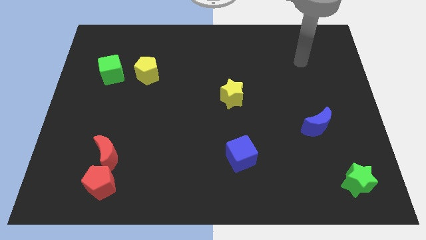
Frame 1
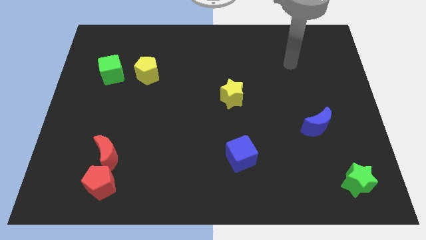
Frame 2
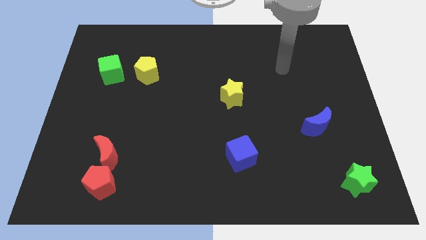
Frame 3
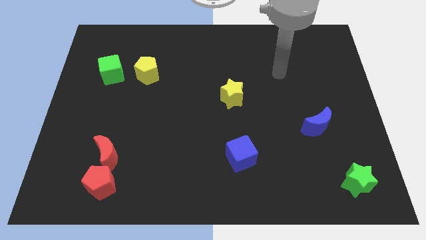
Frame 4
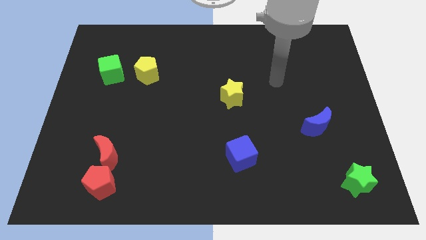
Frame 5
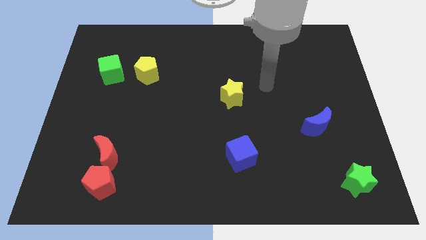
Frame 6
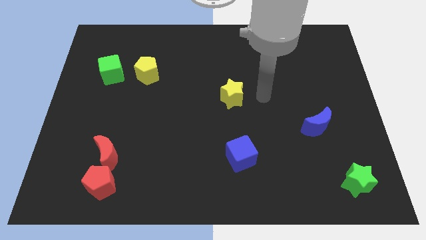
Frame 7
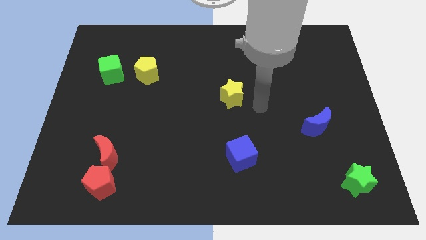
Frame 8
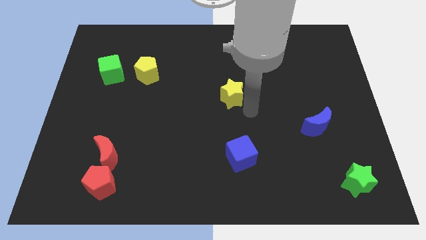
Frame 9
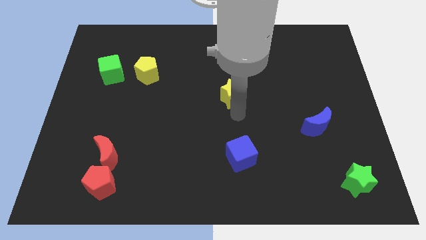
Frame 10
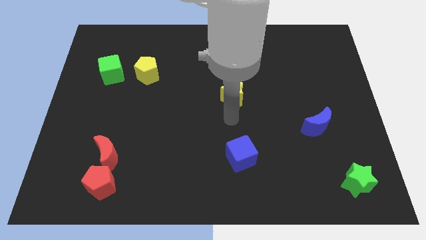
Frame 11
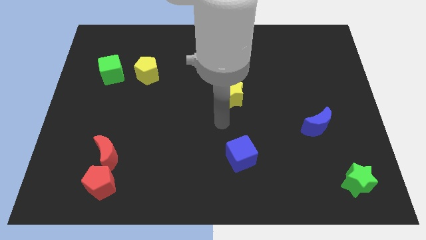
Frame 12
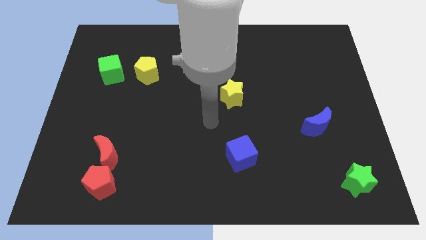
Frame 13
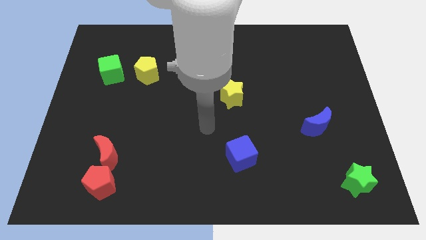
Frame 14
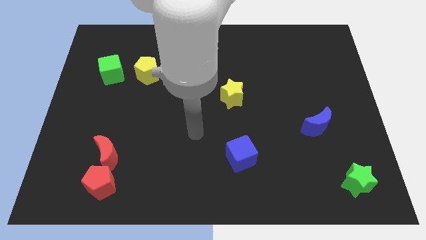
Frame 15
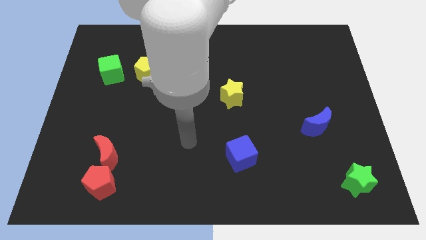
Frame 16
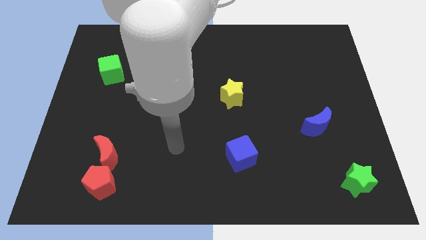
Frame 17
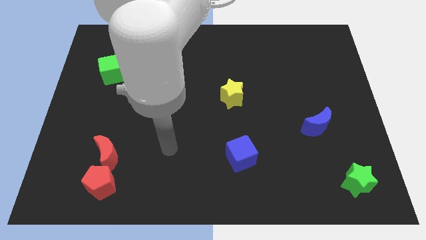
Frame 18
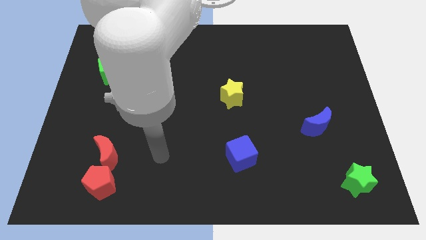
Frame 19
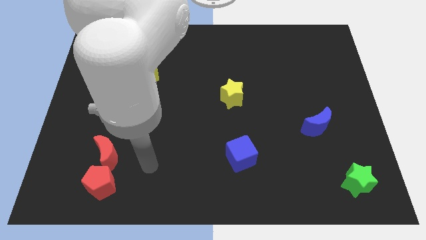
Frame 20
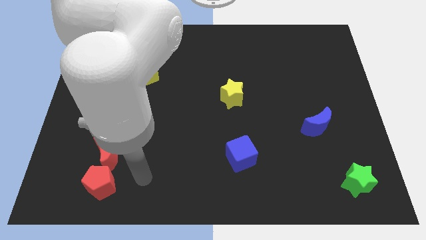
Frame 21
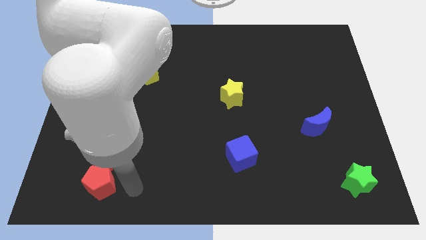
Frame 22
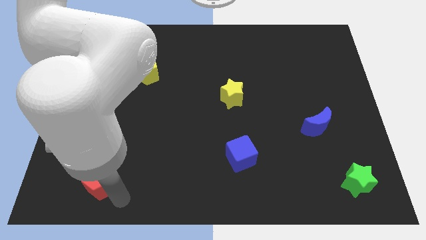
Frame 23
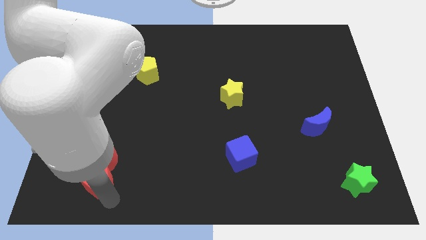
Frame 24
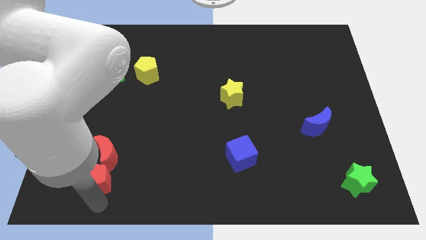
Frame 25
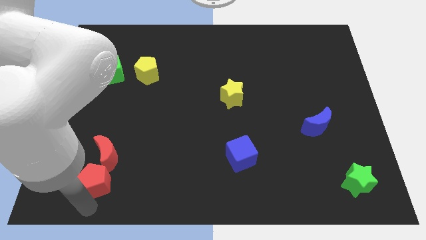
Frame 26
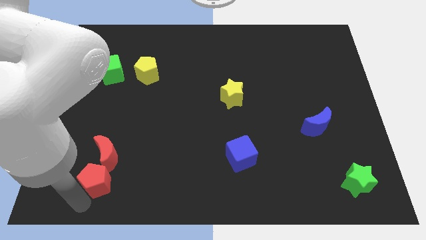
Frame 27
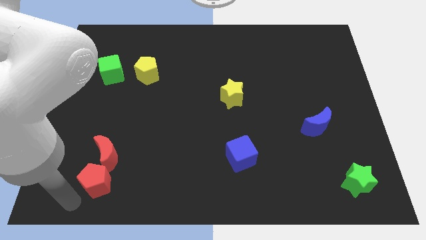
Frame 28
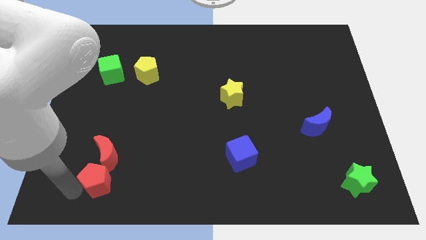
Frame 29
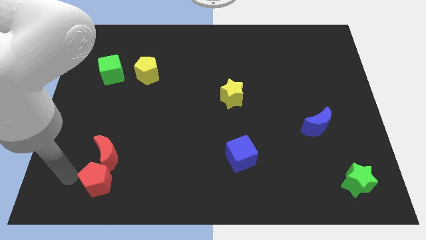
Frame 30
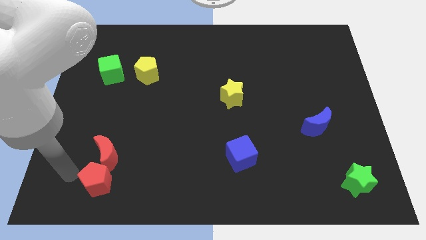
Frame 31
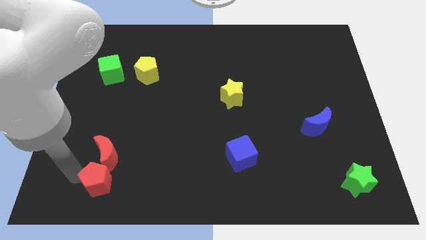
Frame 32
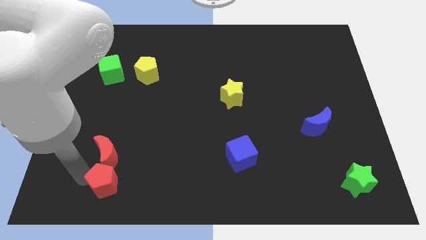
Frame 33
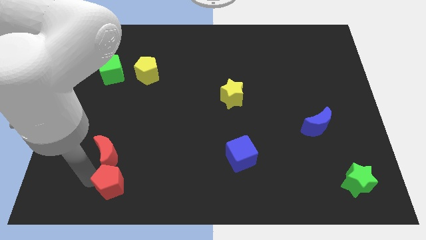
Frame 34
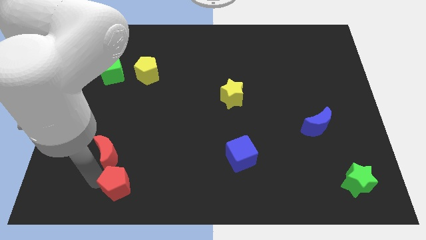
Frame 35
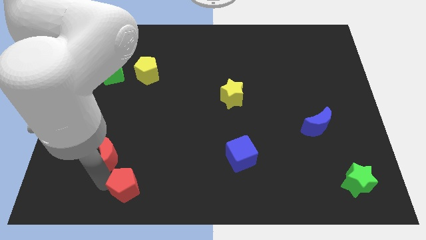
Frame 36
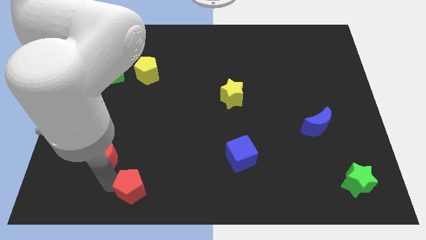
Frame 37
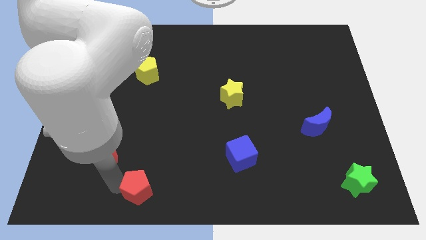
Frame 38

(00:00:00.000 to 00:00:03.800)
move the red pentagon somewhat to the right

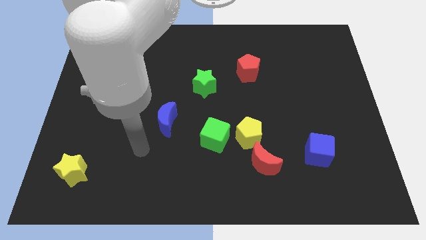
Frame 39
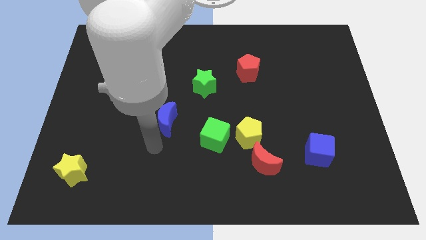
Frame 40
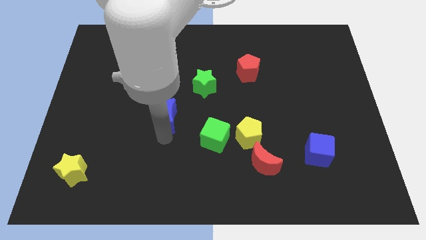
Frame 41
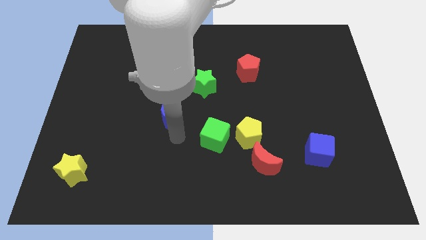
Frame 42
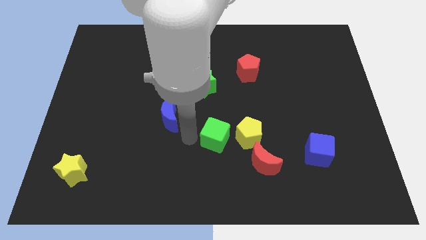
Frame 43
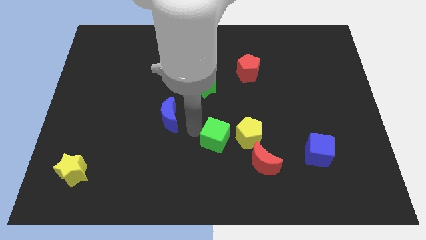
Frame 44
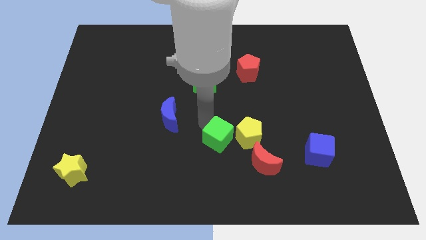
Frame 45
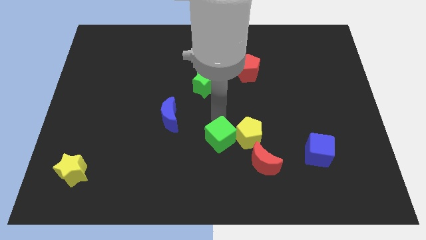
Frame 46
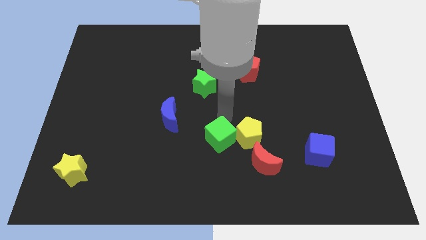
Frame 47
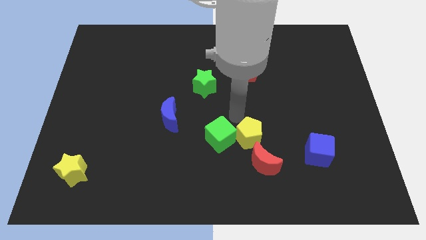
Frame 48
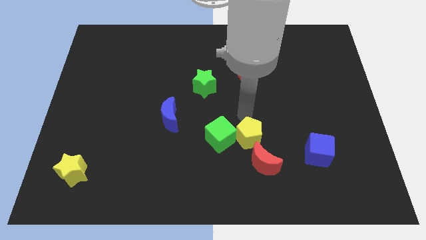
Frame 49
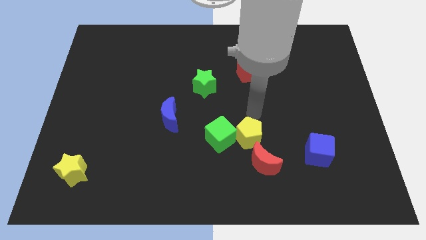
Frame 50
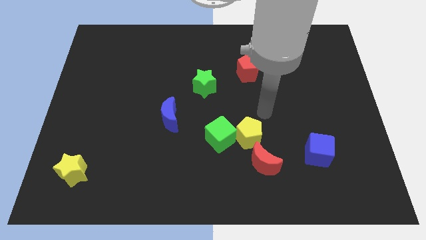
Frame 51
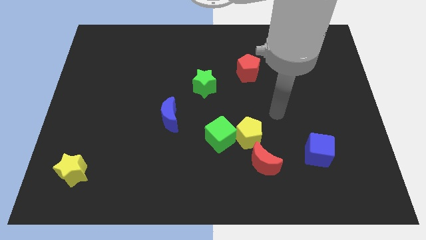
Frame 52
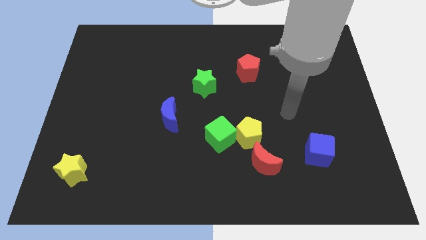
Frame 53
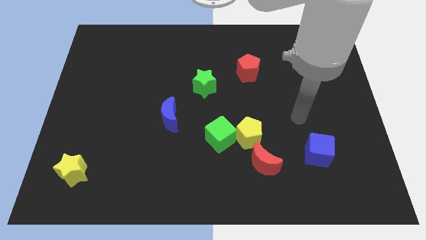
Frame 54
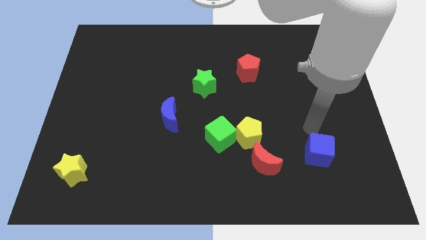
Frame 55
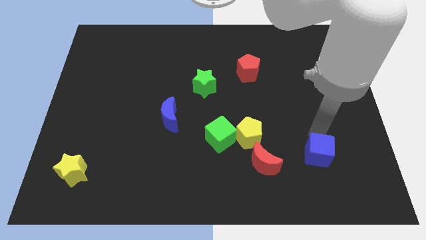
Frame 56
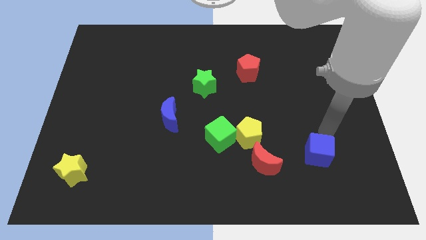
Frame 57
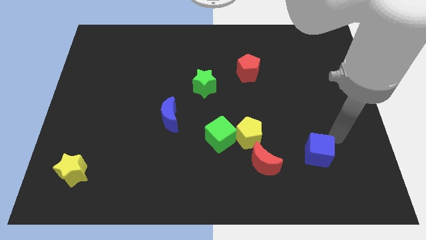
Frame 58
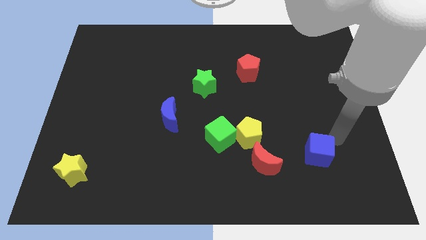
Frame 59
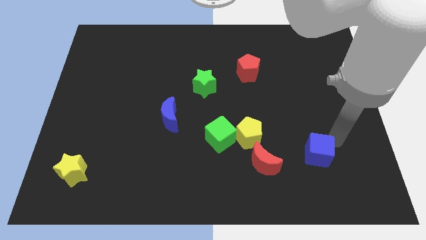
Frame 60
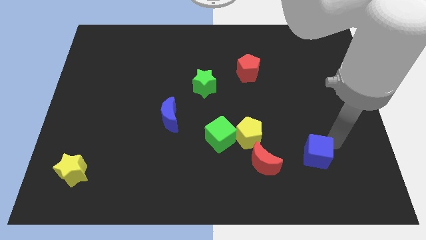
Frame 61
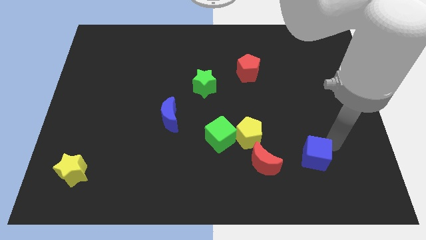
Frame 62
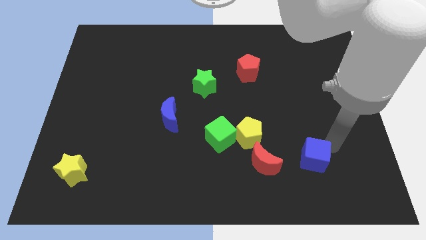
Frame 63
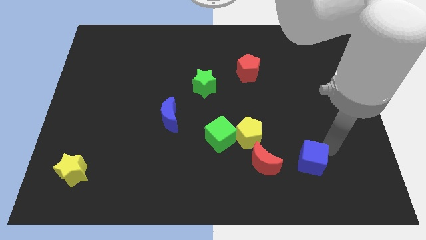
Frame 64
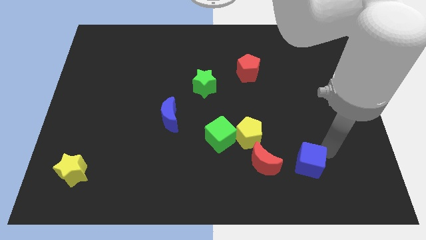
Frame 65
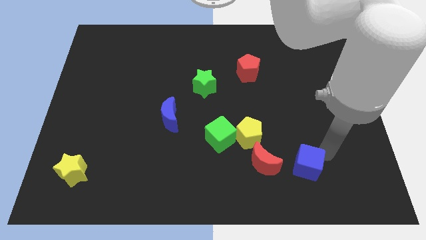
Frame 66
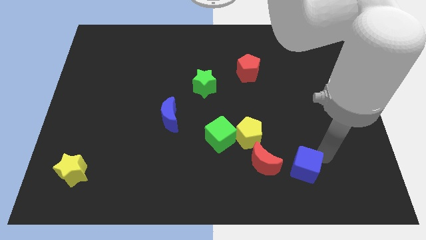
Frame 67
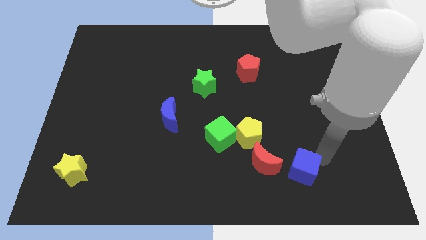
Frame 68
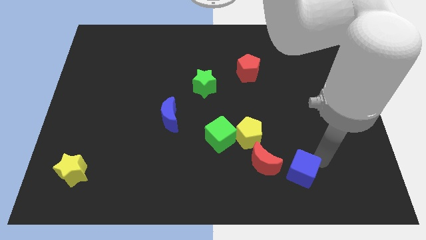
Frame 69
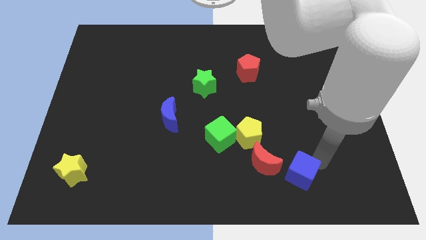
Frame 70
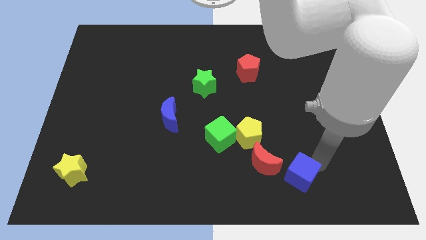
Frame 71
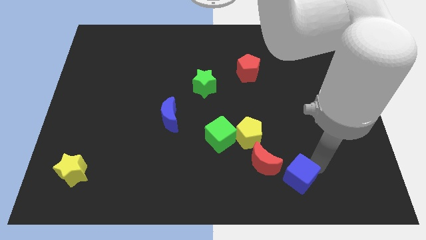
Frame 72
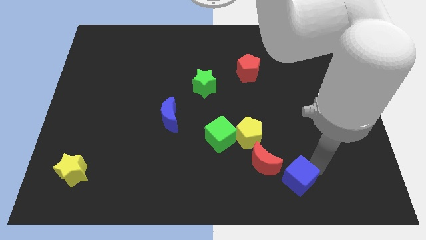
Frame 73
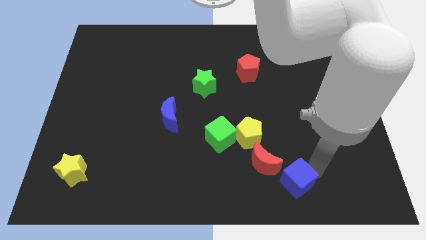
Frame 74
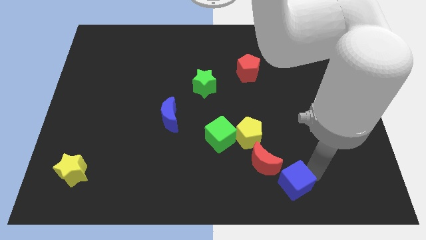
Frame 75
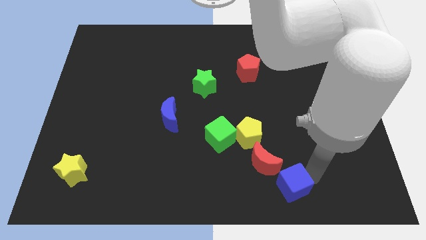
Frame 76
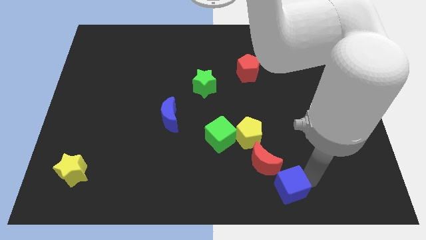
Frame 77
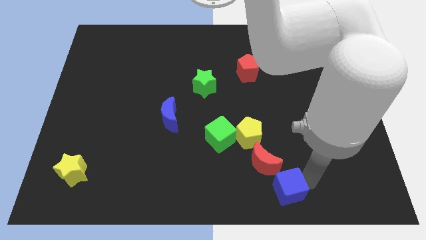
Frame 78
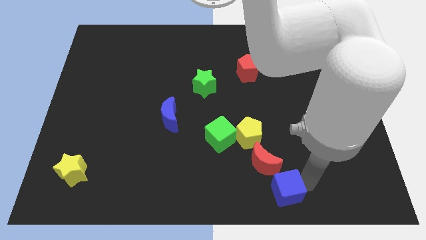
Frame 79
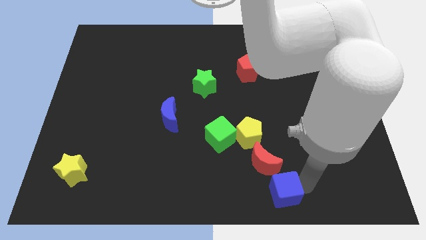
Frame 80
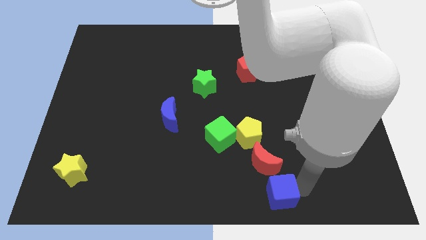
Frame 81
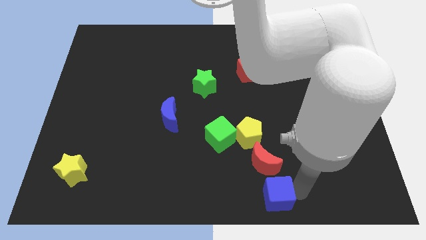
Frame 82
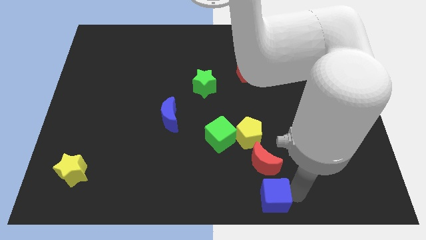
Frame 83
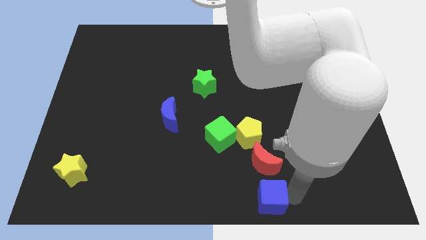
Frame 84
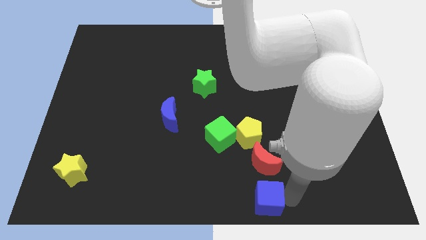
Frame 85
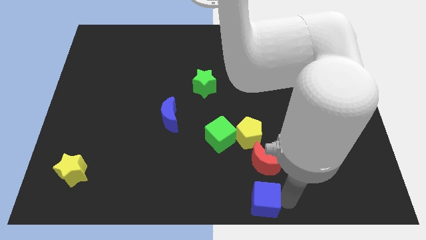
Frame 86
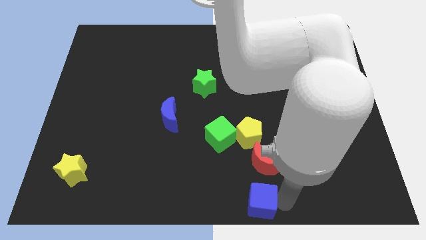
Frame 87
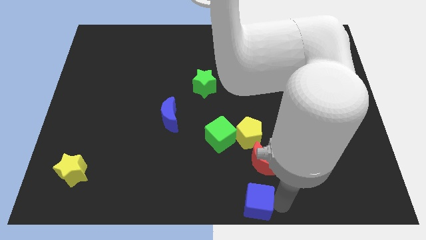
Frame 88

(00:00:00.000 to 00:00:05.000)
move the blue cube left a little
